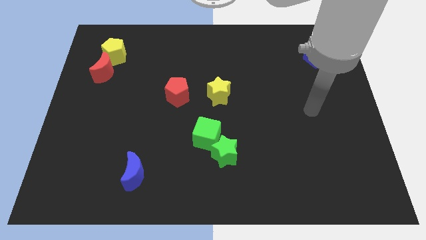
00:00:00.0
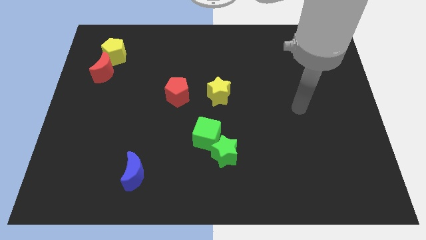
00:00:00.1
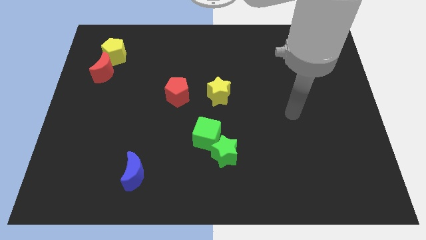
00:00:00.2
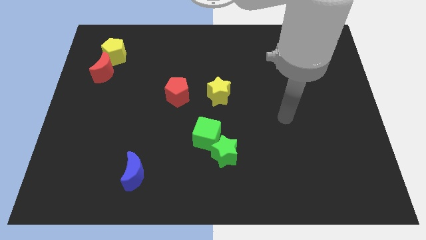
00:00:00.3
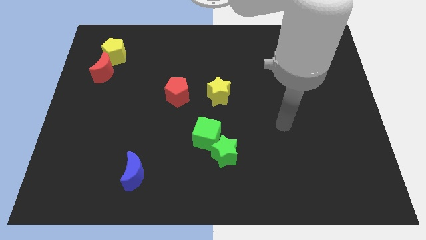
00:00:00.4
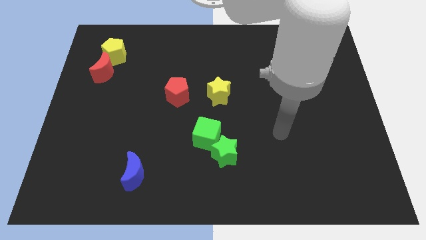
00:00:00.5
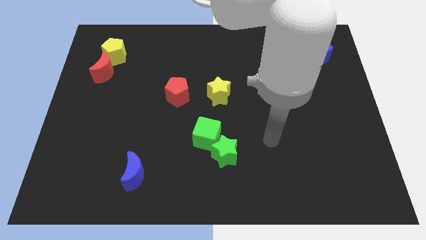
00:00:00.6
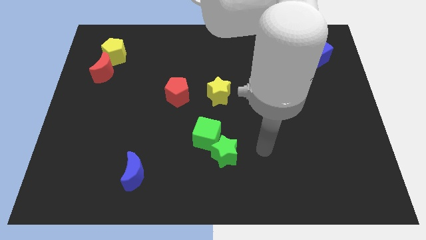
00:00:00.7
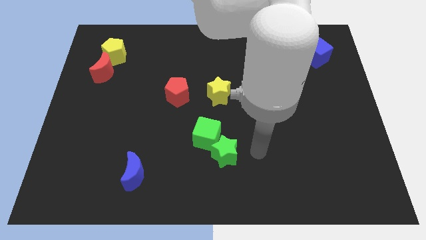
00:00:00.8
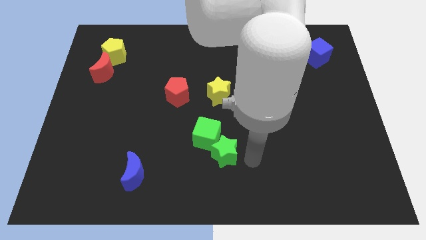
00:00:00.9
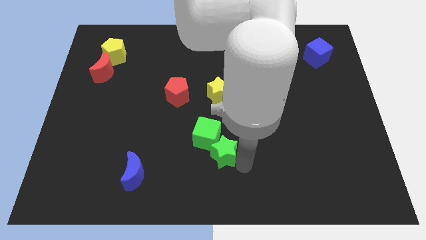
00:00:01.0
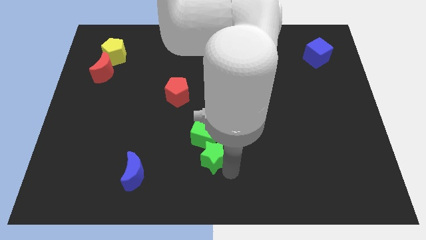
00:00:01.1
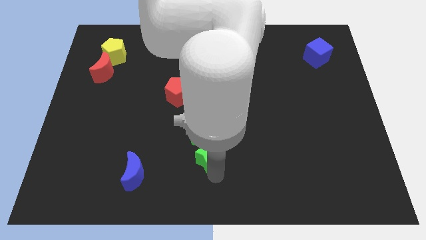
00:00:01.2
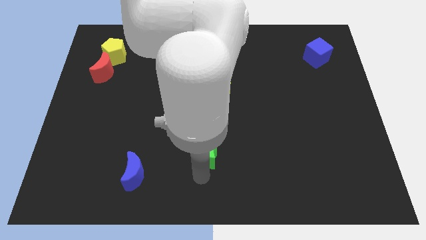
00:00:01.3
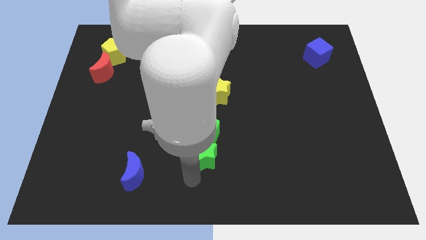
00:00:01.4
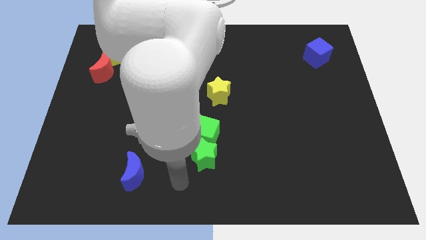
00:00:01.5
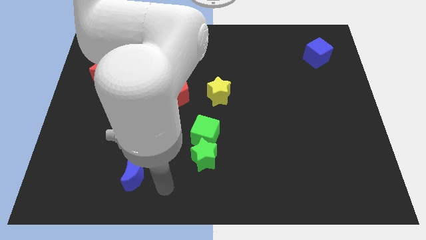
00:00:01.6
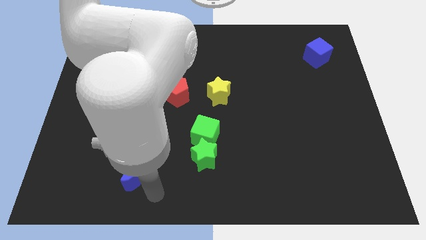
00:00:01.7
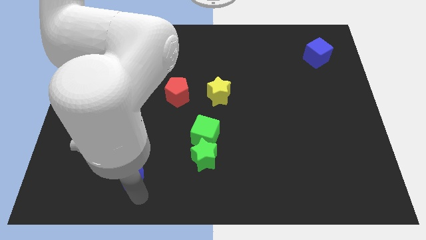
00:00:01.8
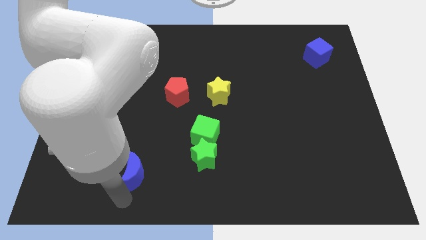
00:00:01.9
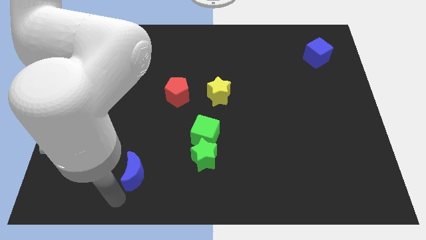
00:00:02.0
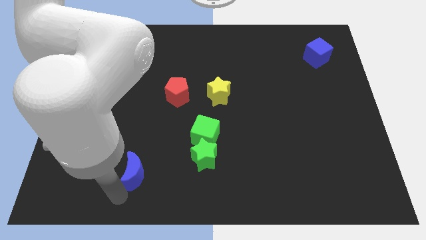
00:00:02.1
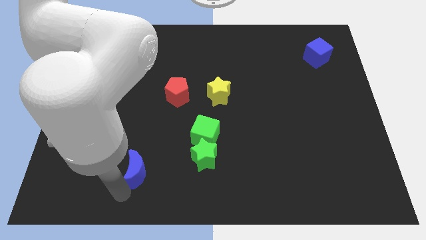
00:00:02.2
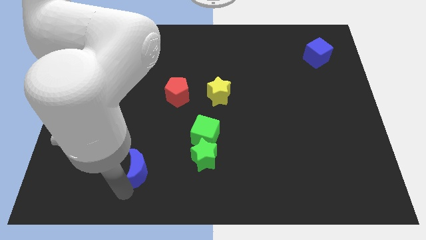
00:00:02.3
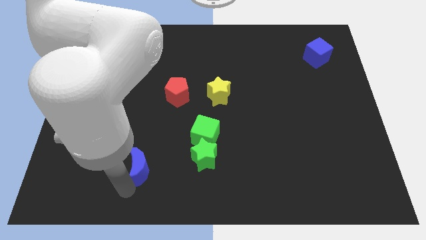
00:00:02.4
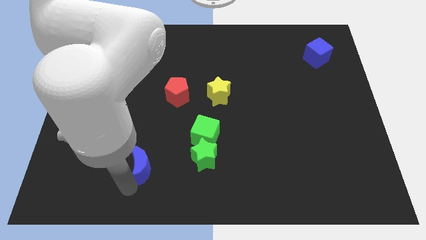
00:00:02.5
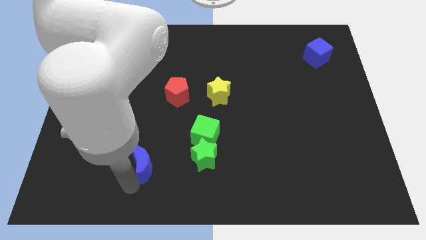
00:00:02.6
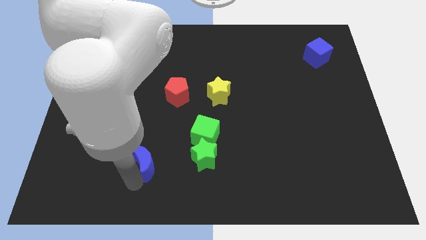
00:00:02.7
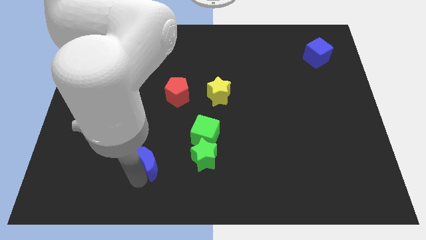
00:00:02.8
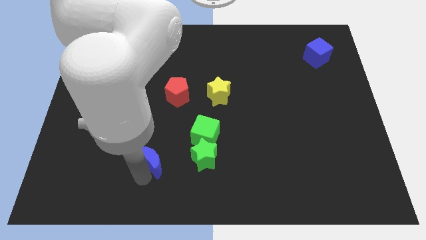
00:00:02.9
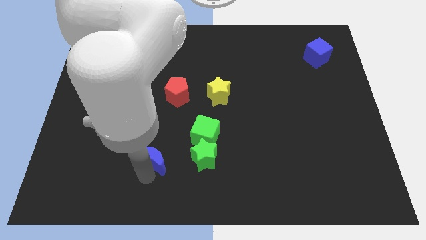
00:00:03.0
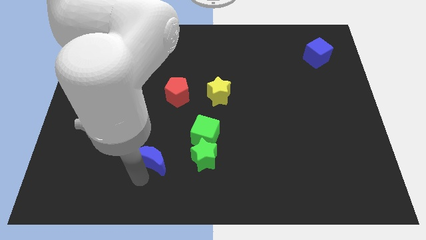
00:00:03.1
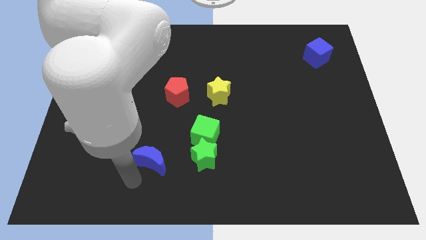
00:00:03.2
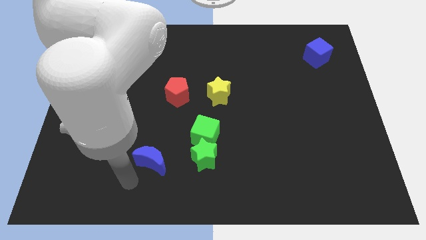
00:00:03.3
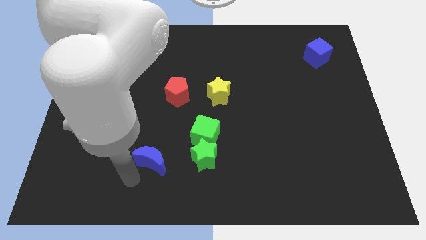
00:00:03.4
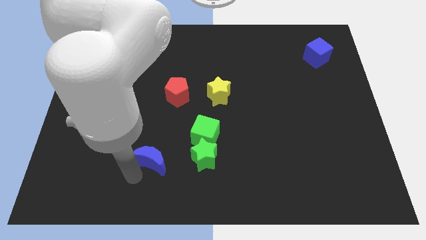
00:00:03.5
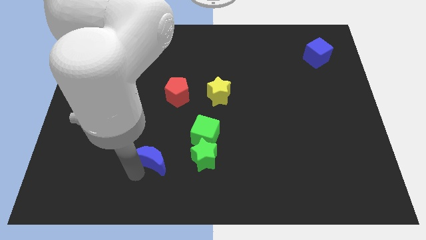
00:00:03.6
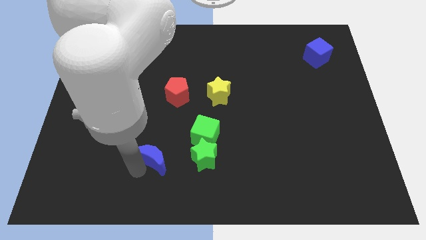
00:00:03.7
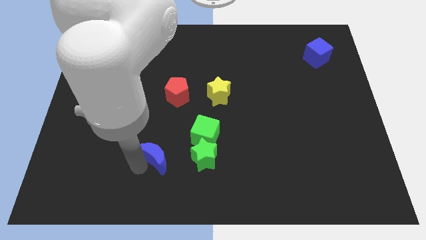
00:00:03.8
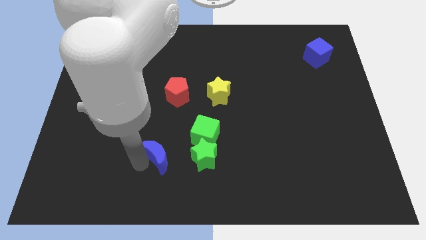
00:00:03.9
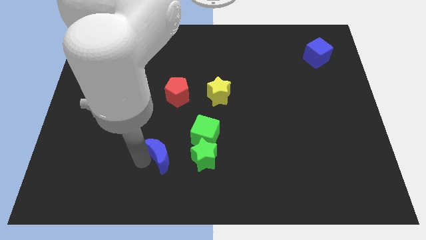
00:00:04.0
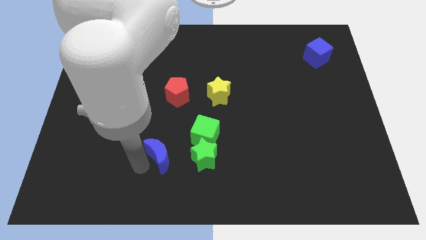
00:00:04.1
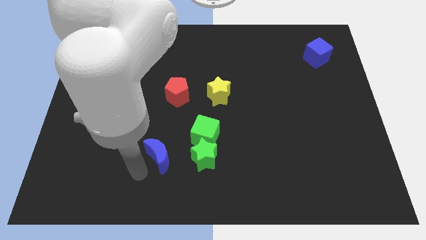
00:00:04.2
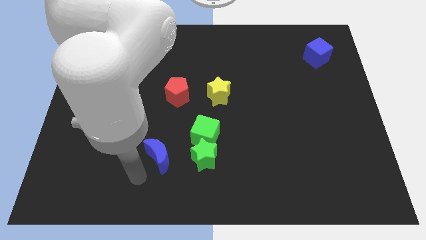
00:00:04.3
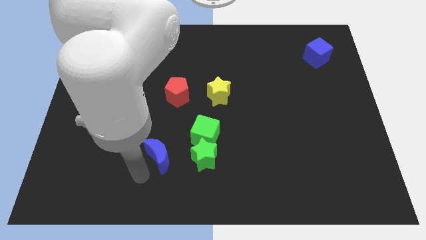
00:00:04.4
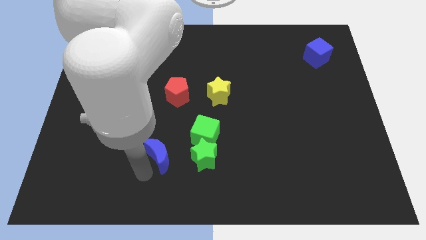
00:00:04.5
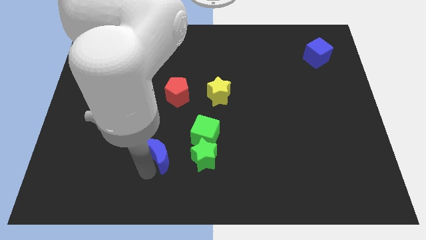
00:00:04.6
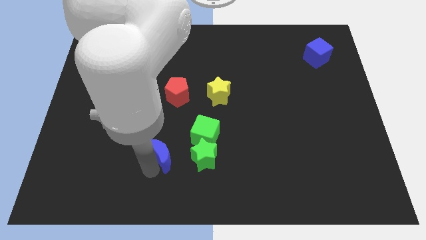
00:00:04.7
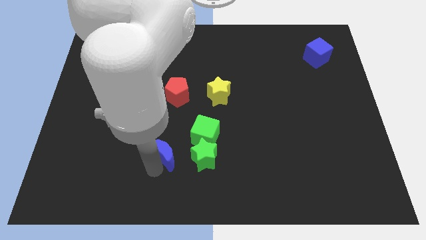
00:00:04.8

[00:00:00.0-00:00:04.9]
slightly slide the blue moon up and right

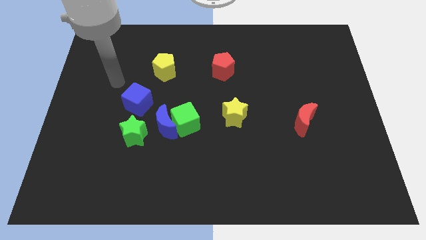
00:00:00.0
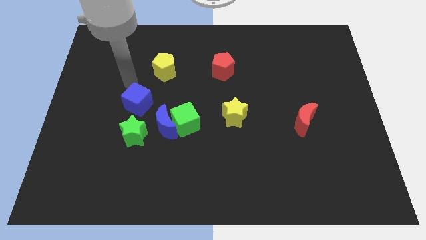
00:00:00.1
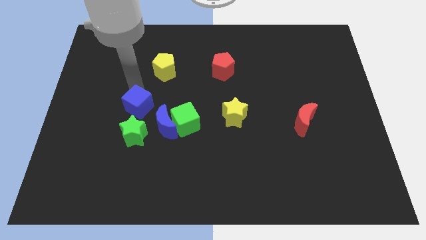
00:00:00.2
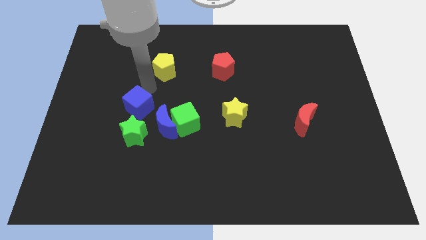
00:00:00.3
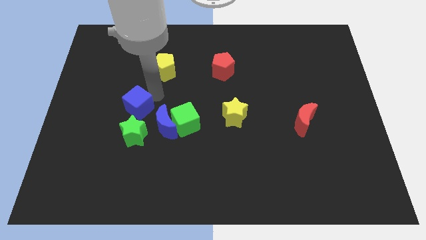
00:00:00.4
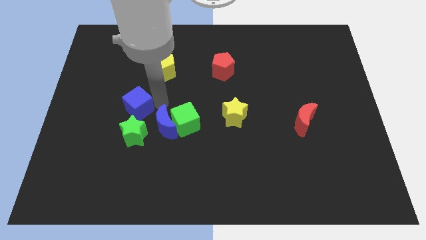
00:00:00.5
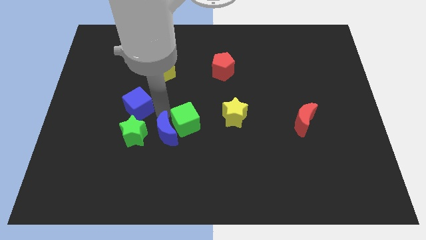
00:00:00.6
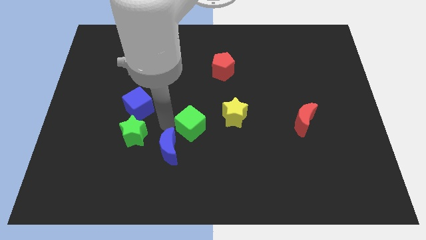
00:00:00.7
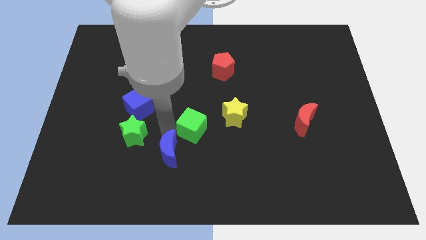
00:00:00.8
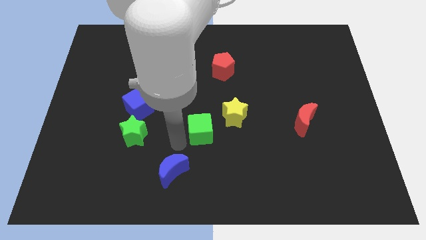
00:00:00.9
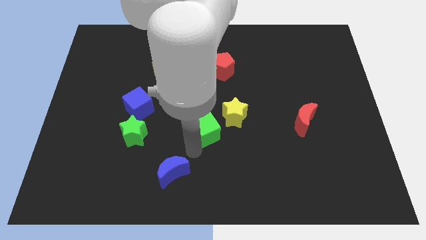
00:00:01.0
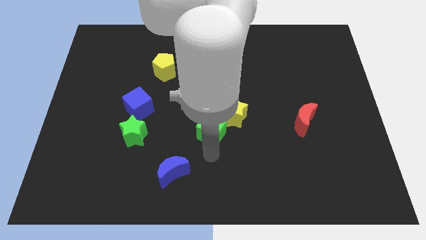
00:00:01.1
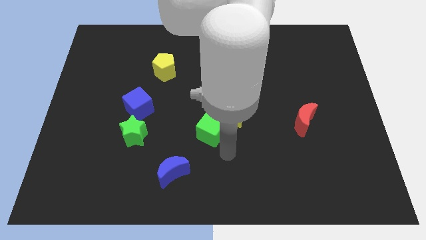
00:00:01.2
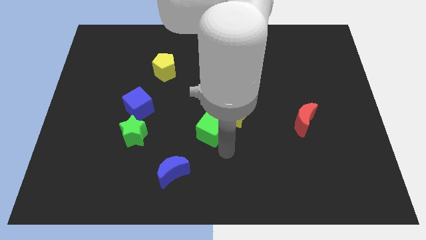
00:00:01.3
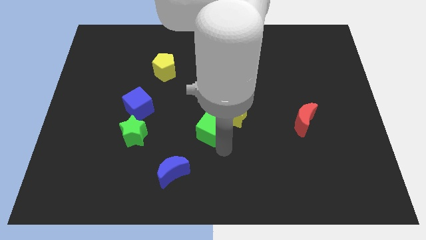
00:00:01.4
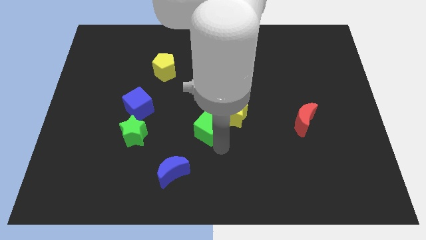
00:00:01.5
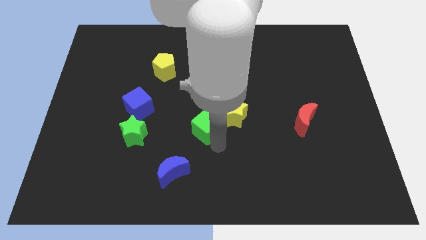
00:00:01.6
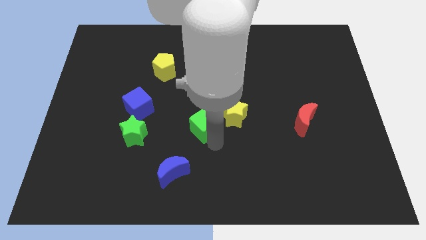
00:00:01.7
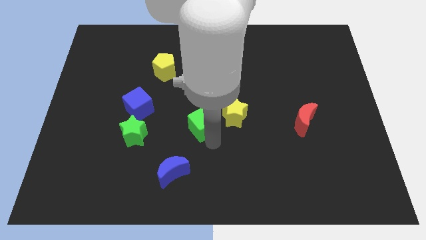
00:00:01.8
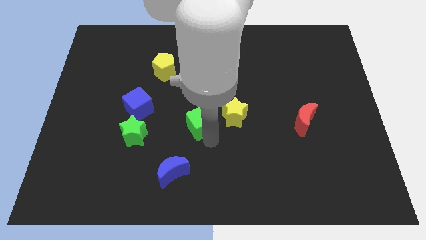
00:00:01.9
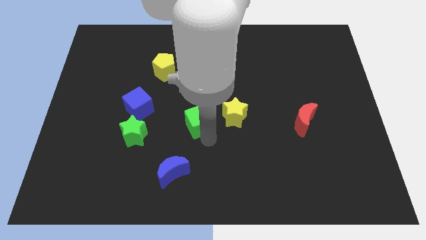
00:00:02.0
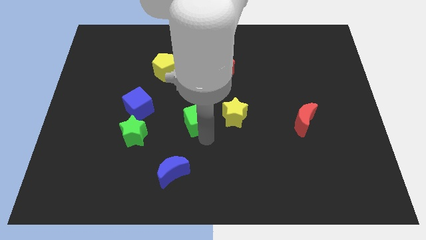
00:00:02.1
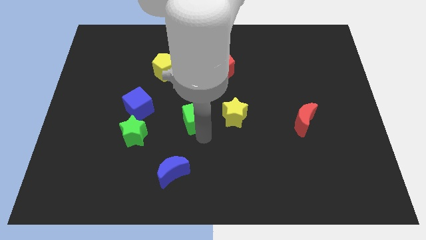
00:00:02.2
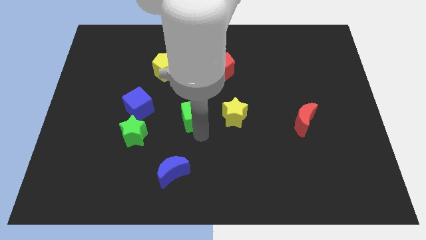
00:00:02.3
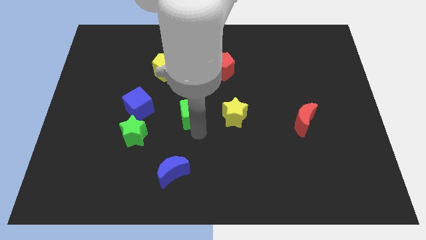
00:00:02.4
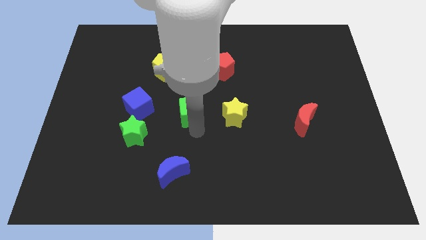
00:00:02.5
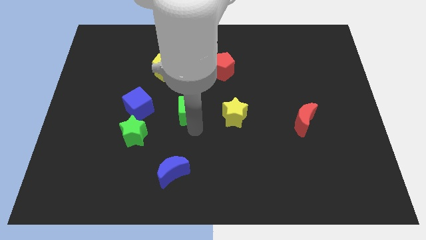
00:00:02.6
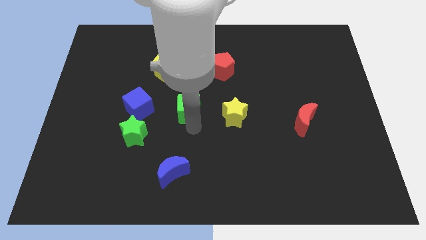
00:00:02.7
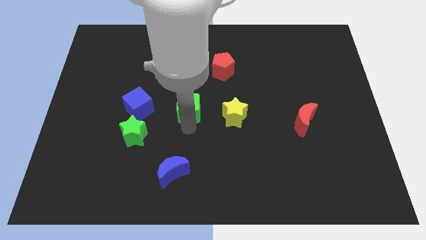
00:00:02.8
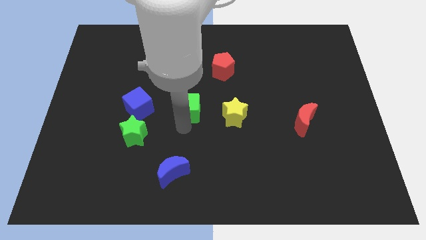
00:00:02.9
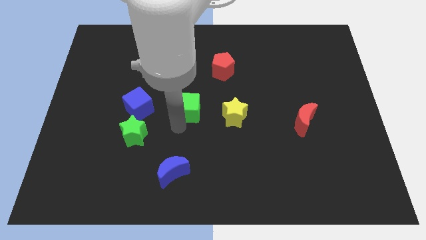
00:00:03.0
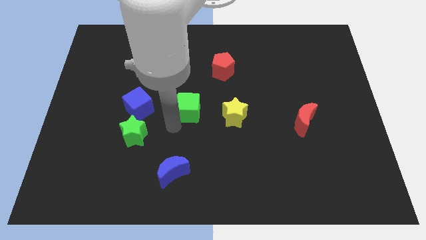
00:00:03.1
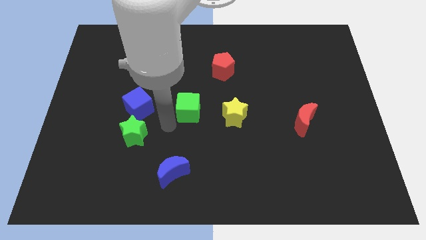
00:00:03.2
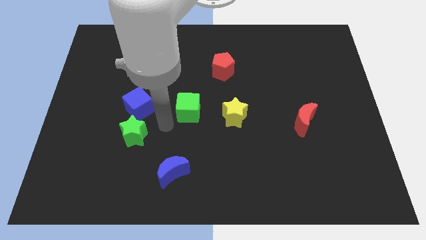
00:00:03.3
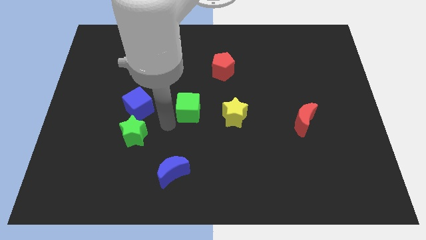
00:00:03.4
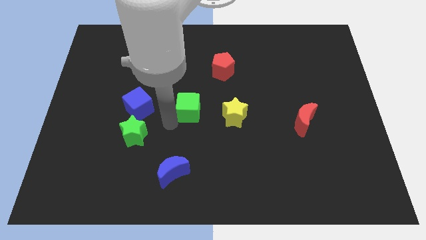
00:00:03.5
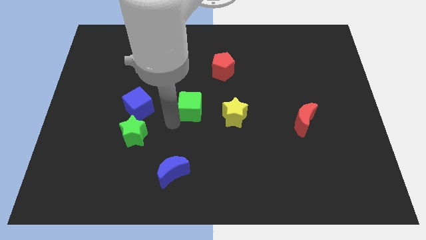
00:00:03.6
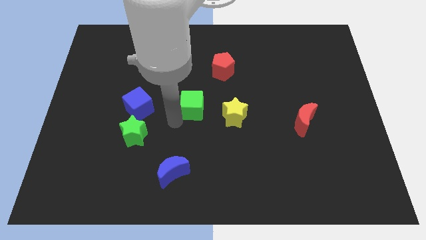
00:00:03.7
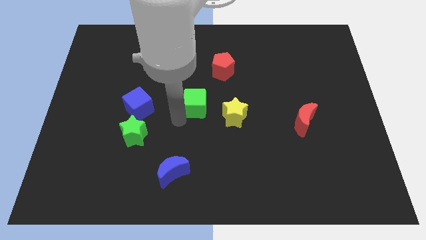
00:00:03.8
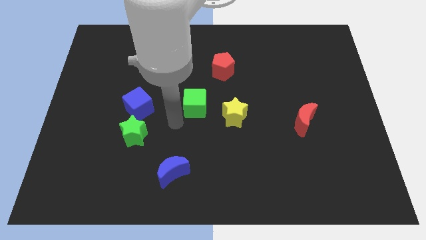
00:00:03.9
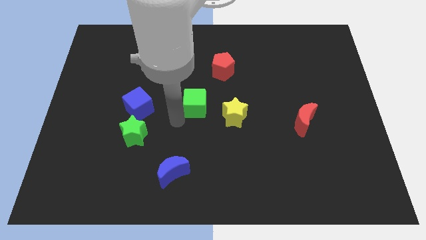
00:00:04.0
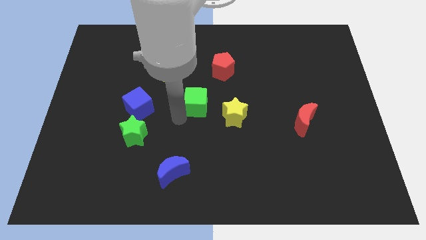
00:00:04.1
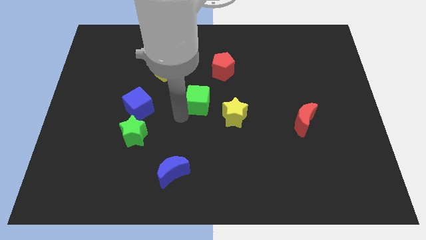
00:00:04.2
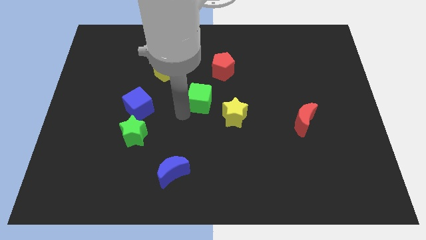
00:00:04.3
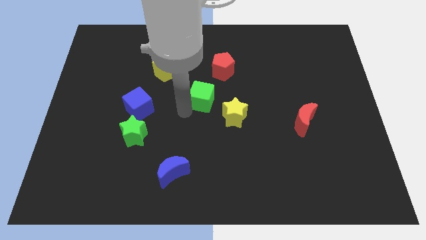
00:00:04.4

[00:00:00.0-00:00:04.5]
move the green cube upwards and then to the right a little bit
